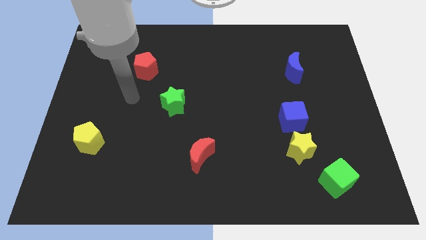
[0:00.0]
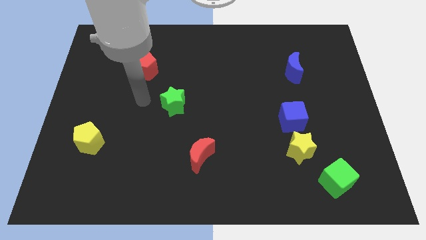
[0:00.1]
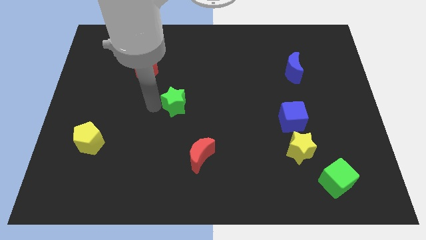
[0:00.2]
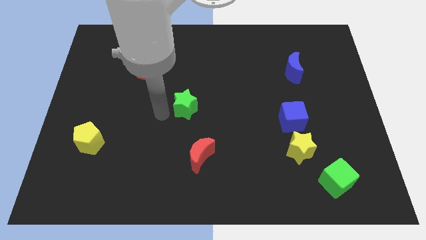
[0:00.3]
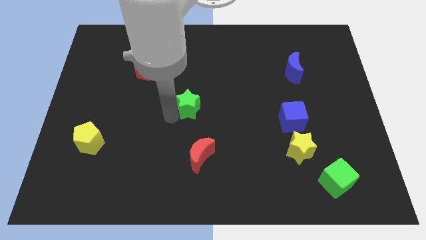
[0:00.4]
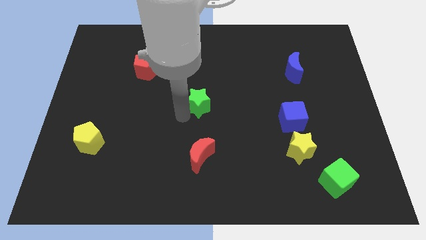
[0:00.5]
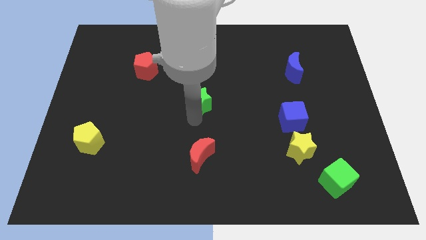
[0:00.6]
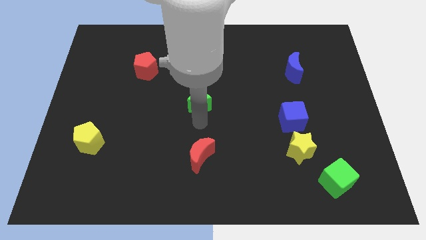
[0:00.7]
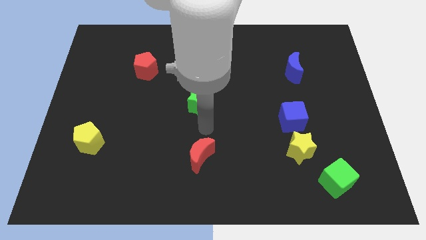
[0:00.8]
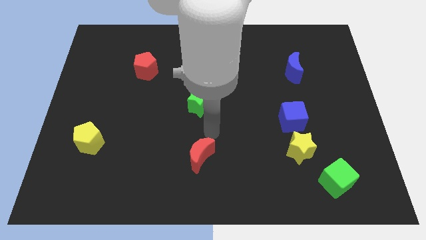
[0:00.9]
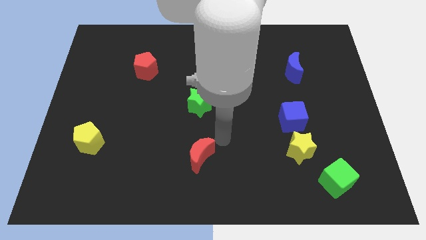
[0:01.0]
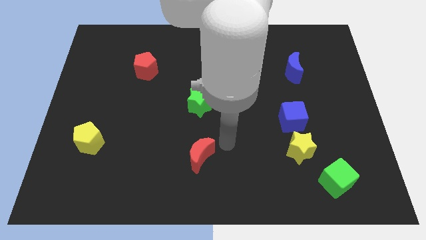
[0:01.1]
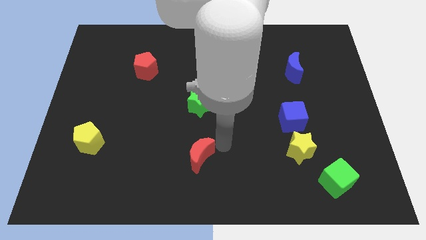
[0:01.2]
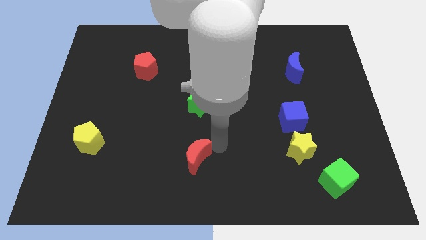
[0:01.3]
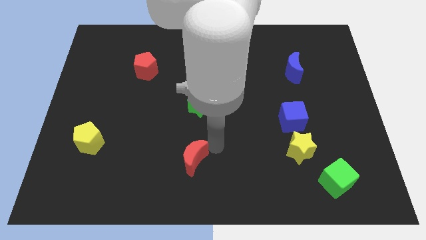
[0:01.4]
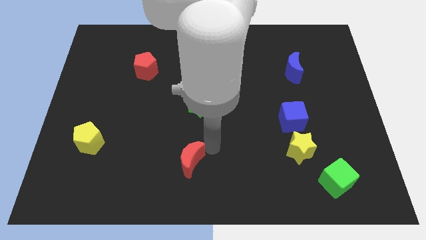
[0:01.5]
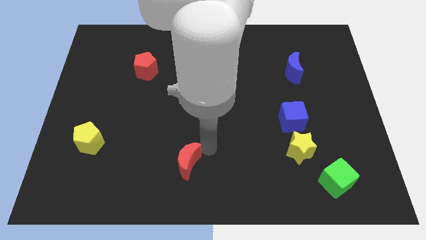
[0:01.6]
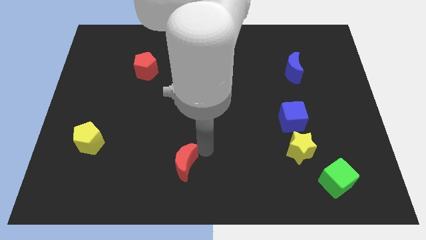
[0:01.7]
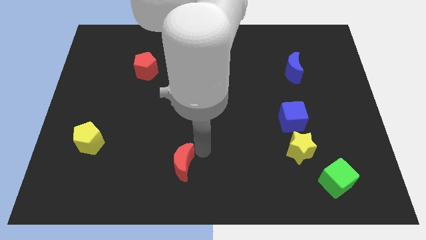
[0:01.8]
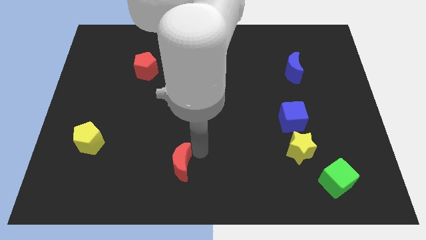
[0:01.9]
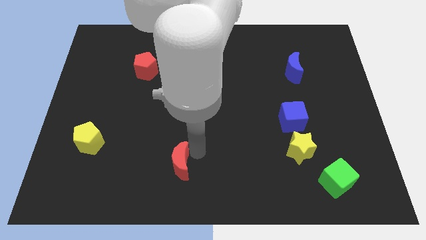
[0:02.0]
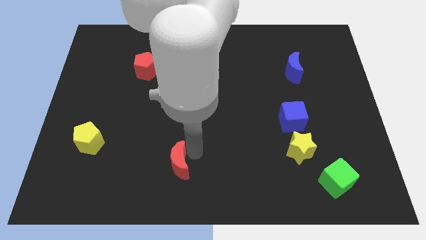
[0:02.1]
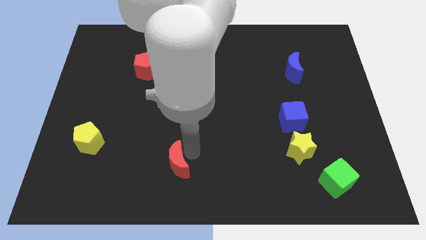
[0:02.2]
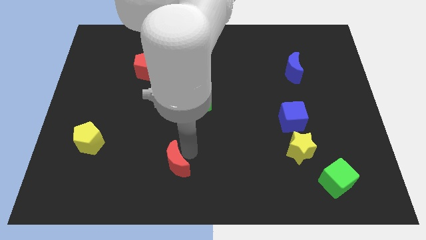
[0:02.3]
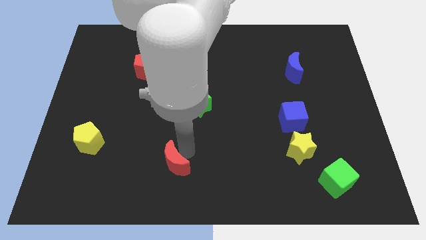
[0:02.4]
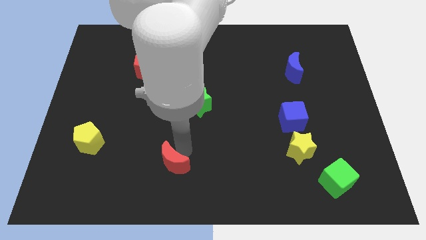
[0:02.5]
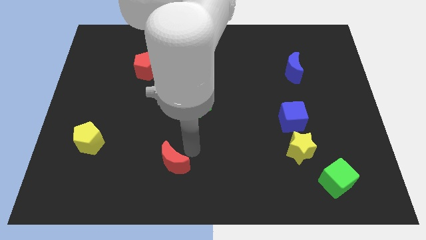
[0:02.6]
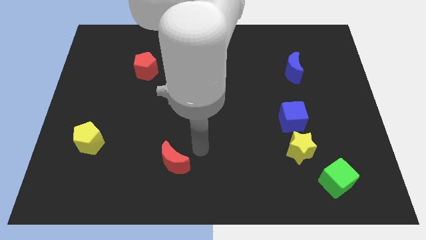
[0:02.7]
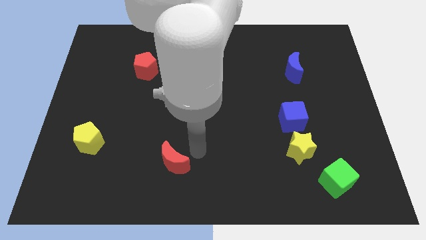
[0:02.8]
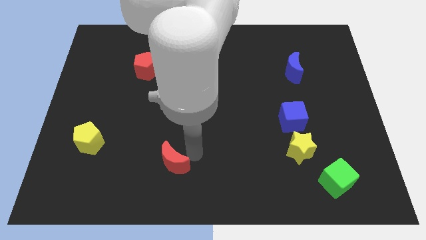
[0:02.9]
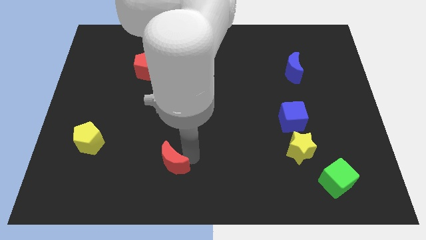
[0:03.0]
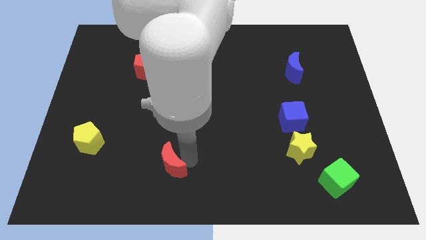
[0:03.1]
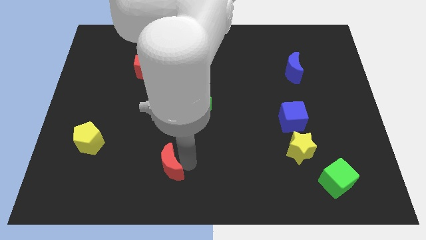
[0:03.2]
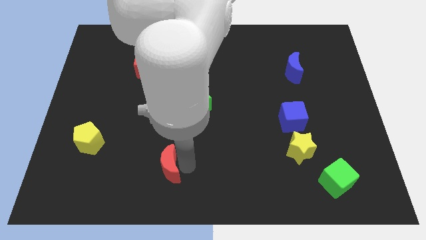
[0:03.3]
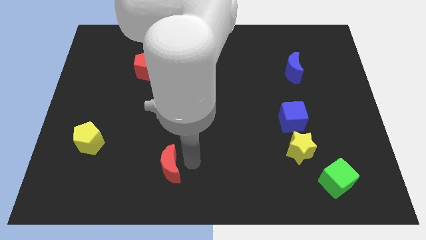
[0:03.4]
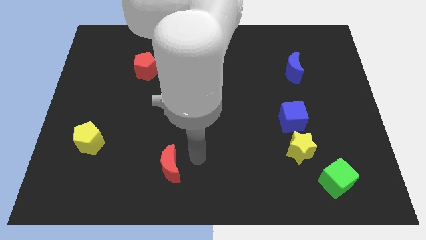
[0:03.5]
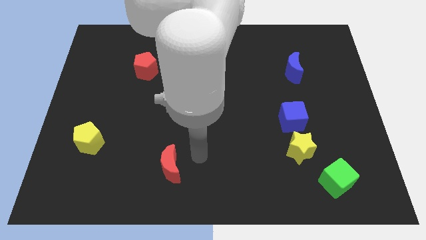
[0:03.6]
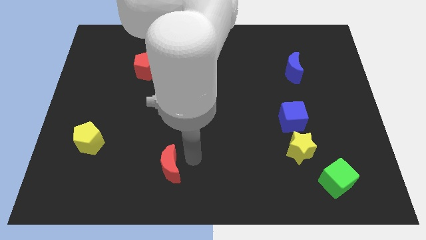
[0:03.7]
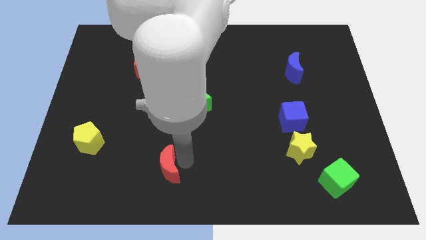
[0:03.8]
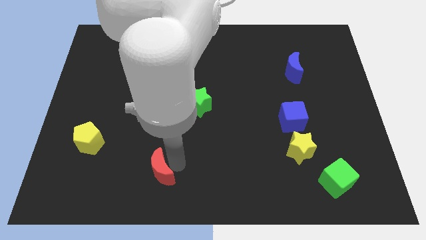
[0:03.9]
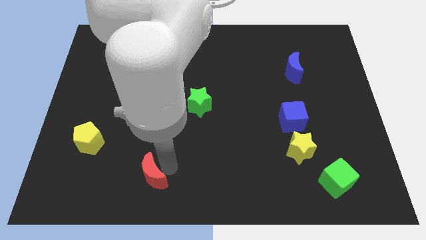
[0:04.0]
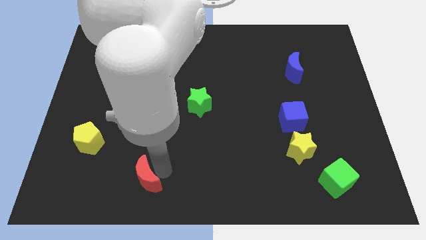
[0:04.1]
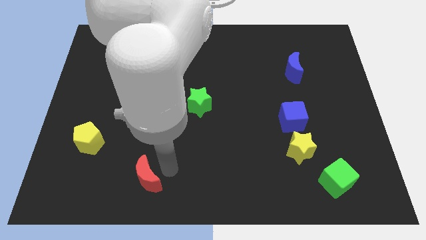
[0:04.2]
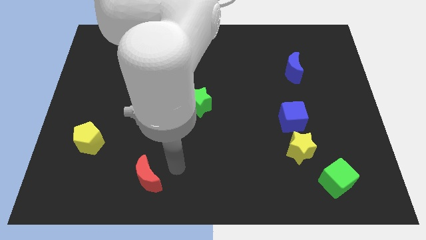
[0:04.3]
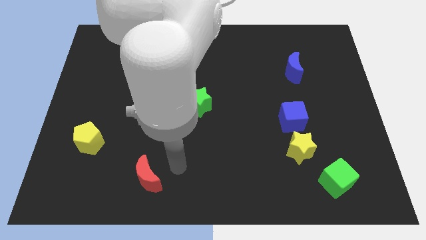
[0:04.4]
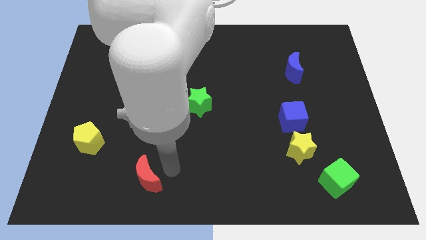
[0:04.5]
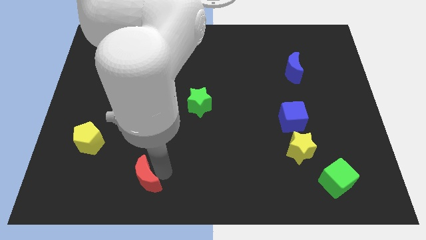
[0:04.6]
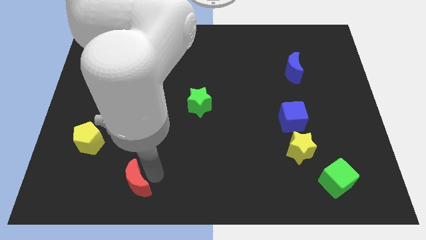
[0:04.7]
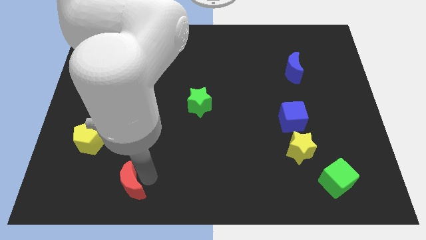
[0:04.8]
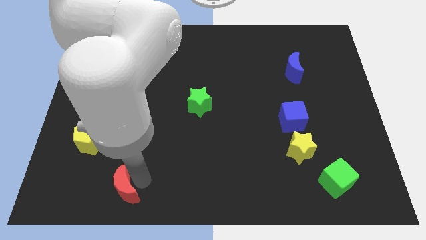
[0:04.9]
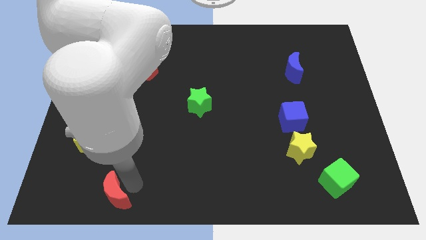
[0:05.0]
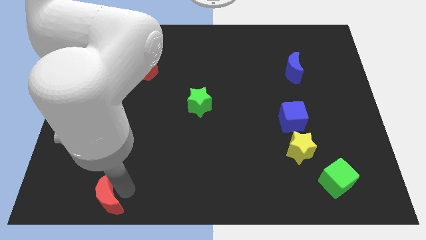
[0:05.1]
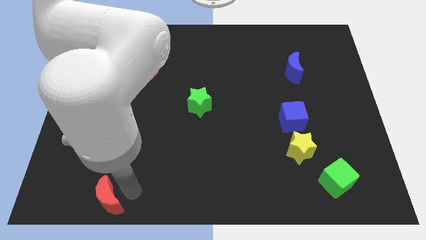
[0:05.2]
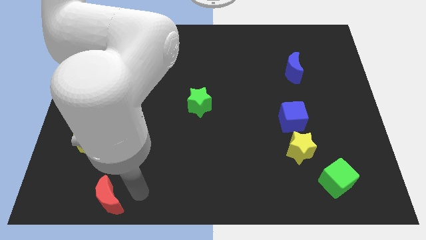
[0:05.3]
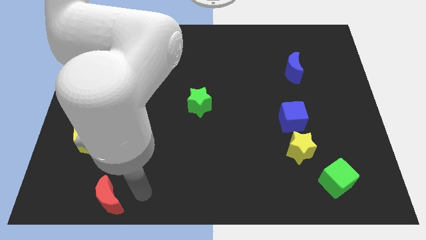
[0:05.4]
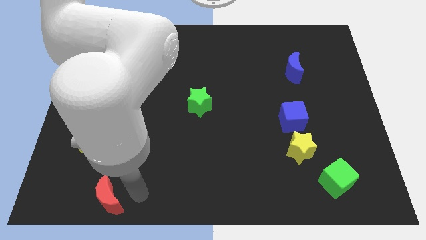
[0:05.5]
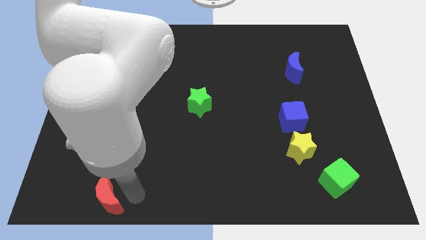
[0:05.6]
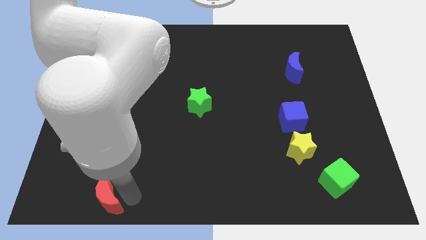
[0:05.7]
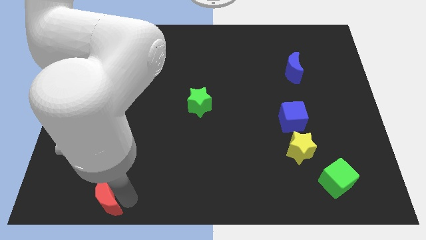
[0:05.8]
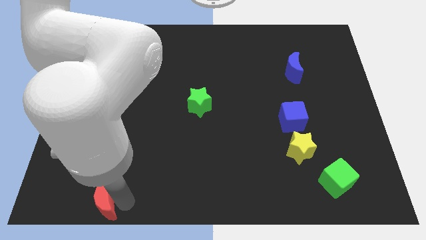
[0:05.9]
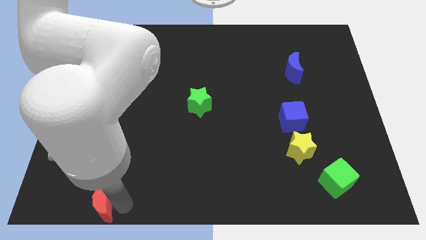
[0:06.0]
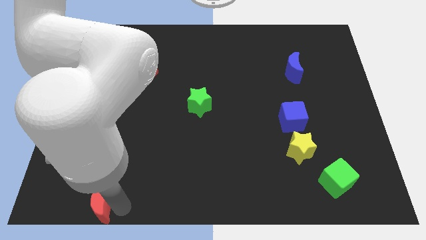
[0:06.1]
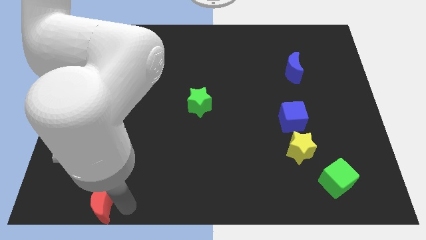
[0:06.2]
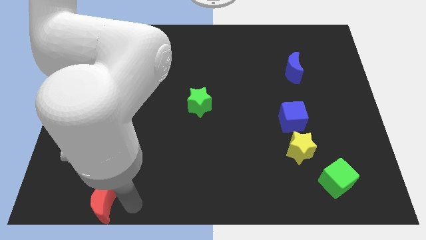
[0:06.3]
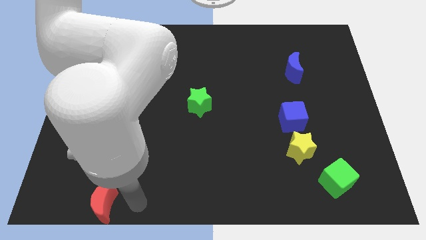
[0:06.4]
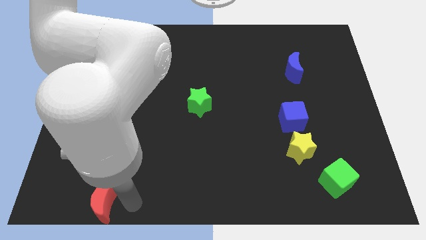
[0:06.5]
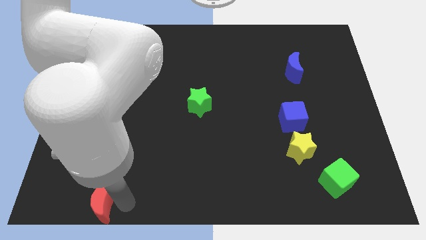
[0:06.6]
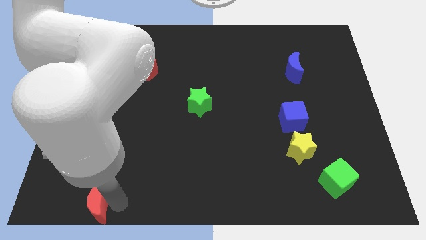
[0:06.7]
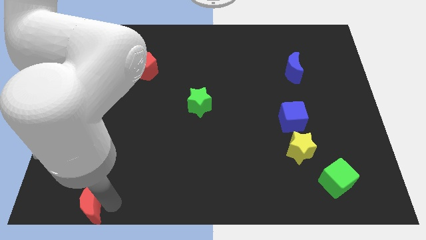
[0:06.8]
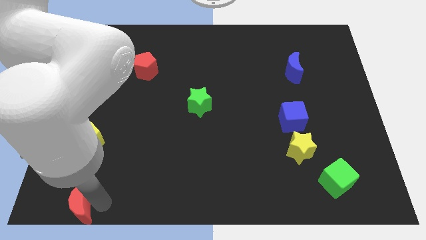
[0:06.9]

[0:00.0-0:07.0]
slide the red moon to the bottom left corner
